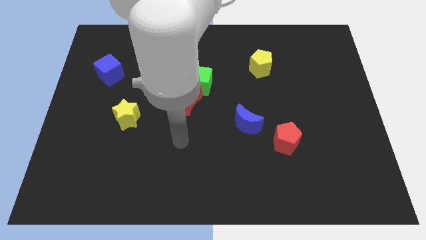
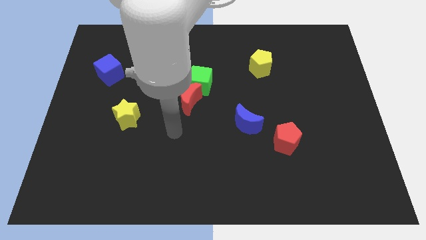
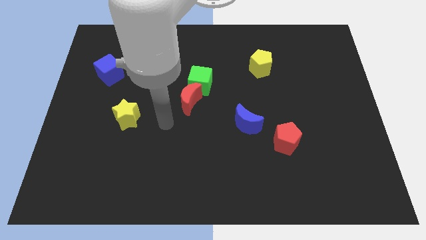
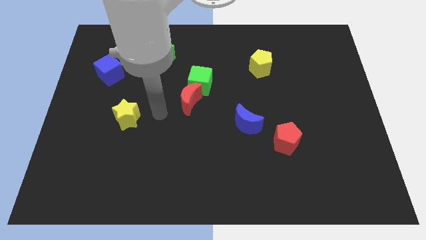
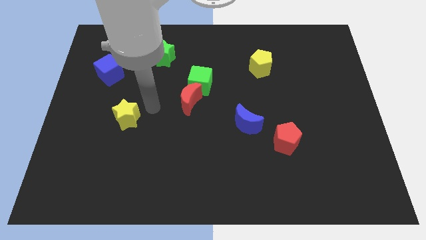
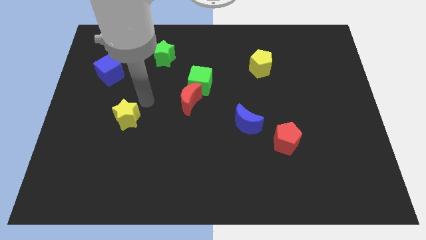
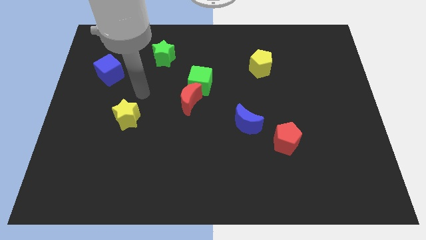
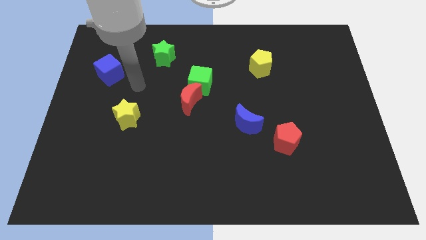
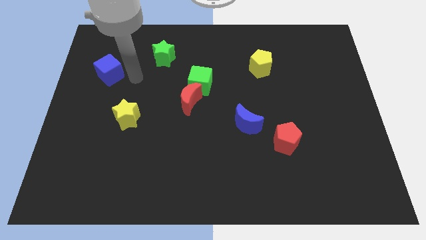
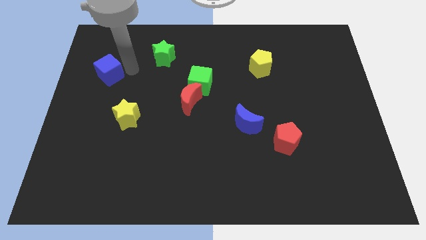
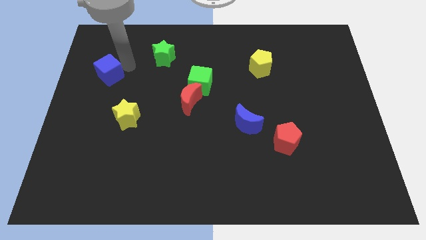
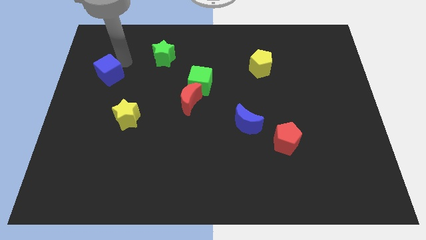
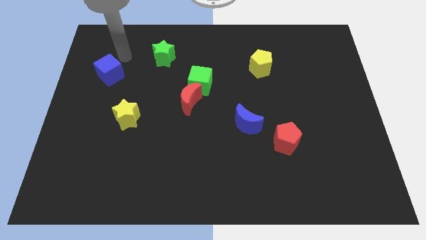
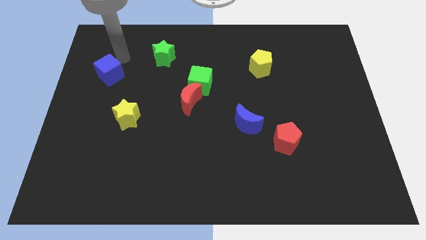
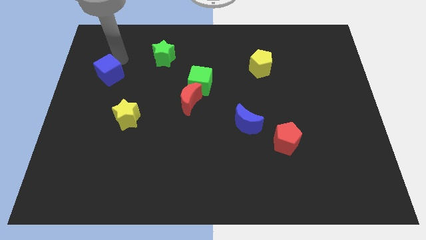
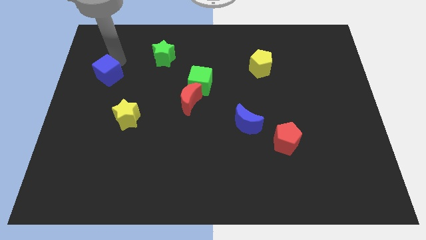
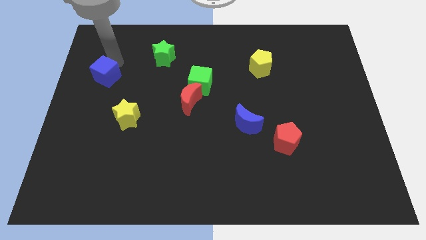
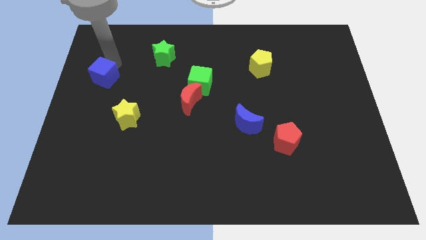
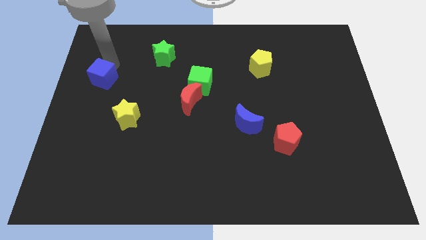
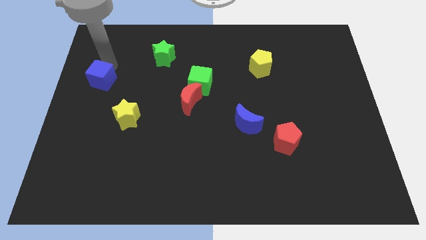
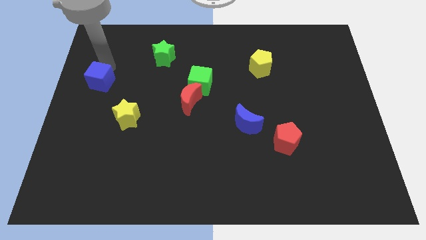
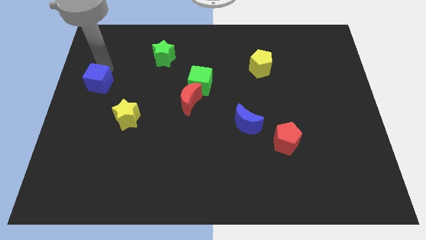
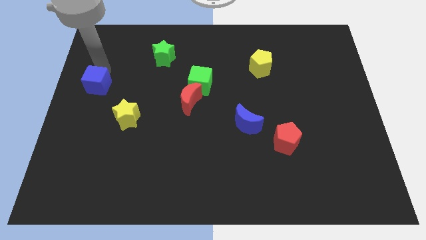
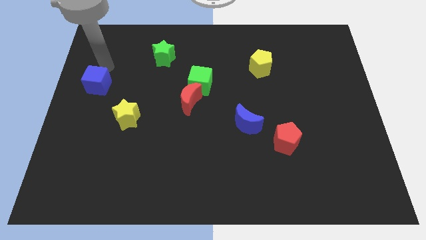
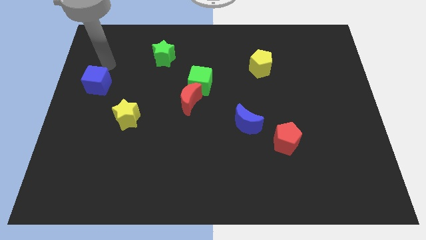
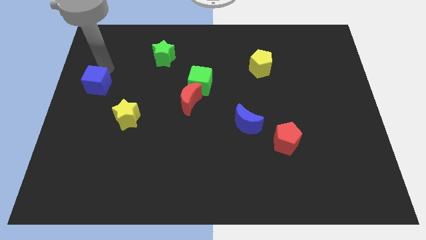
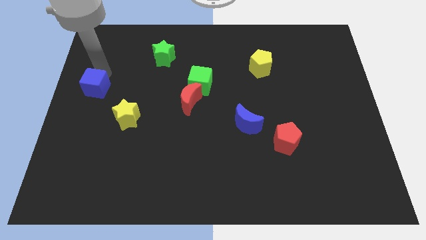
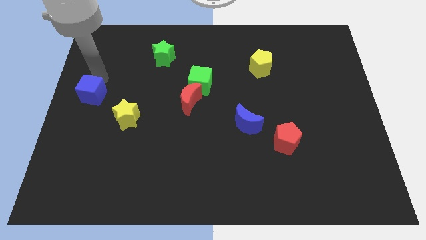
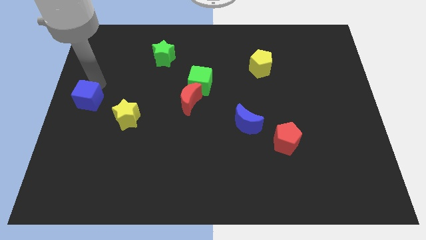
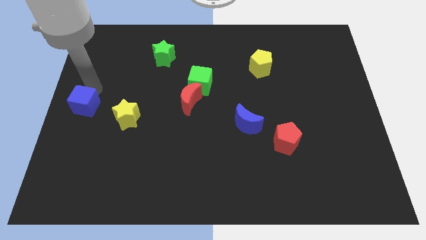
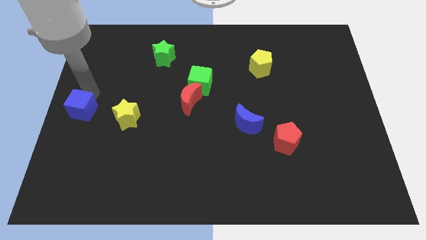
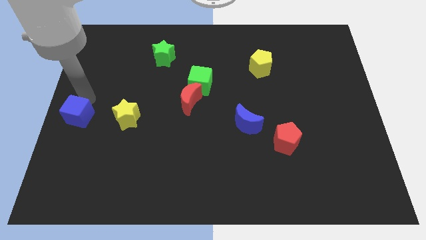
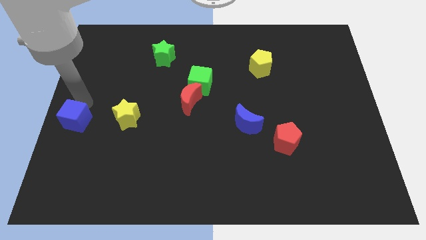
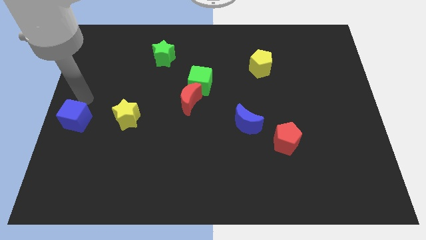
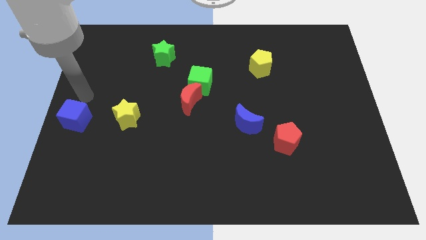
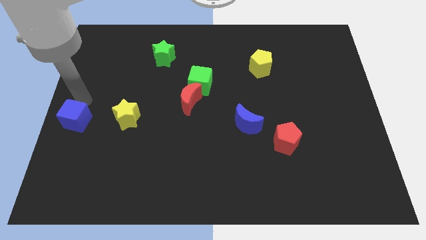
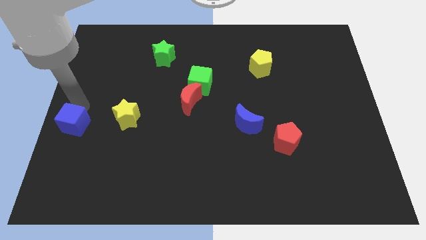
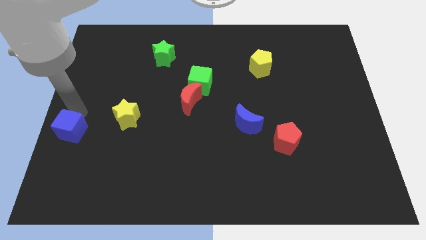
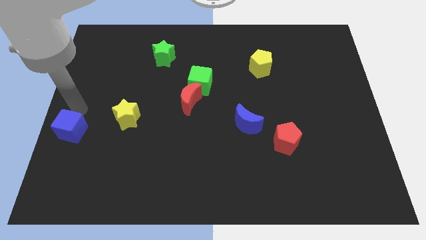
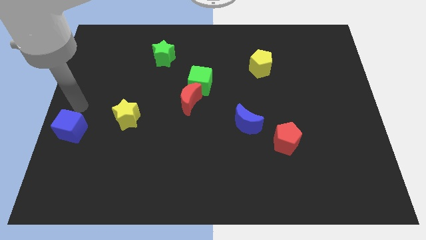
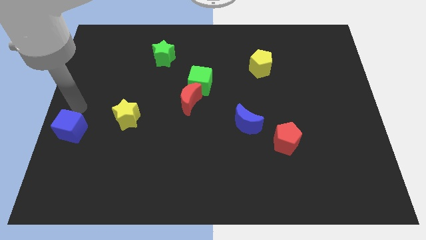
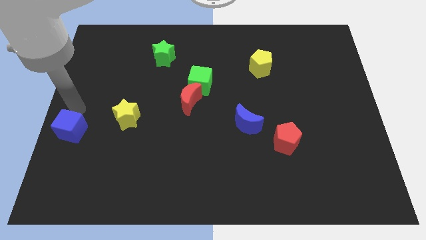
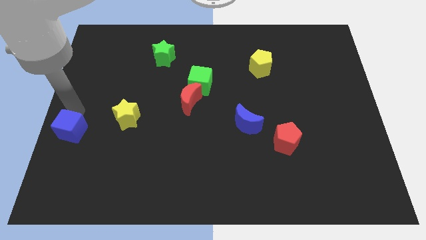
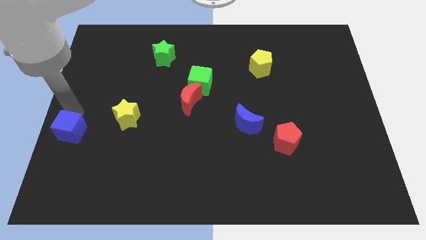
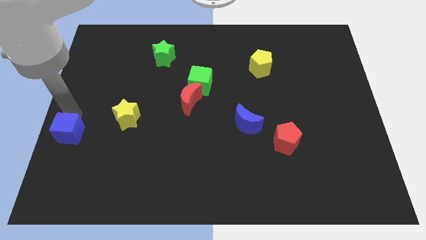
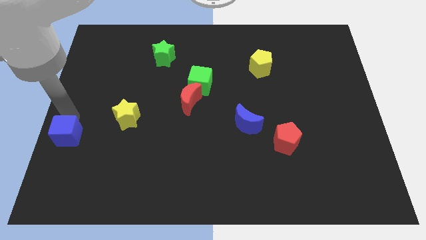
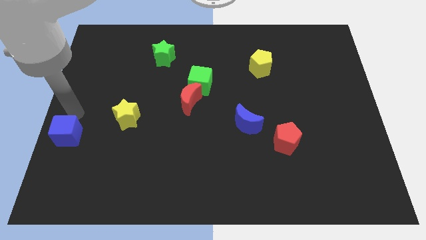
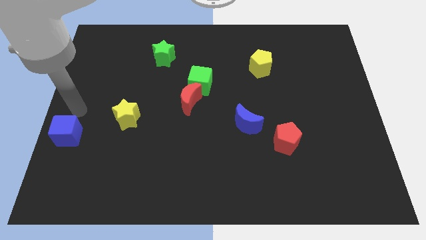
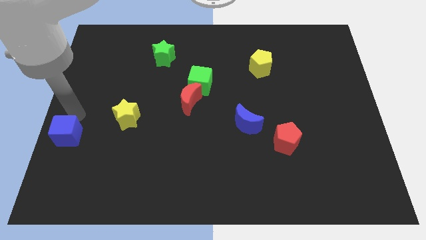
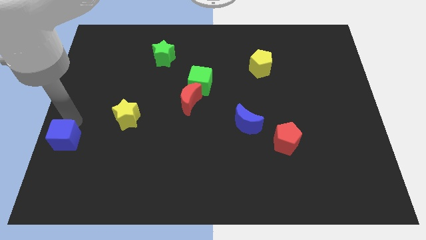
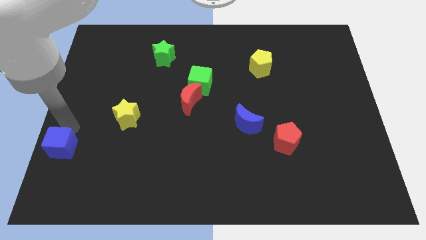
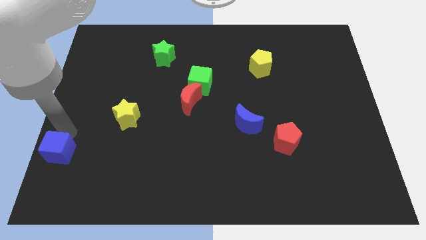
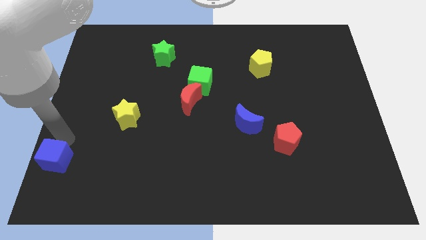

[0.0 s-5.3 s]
slide the blue cube to the bottom left corner
